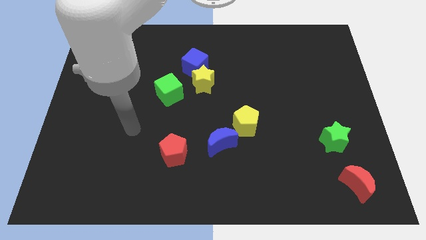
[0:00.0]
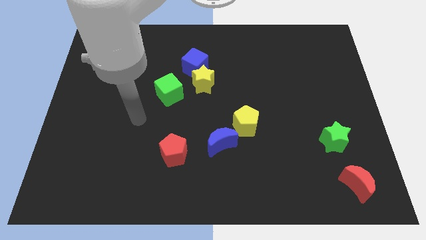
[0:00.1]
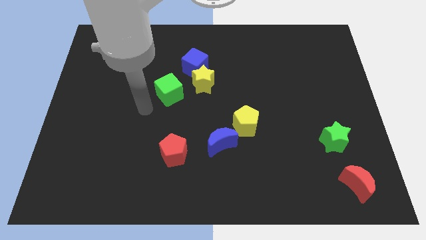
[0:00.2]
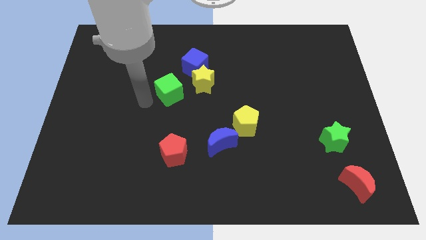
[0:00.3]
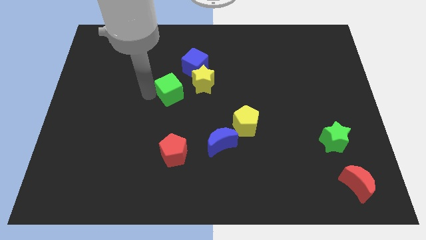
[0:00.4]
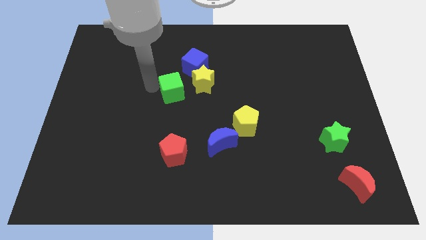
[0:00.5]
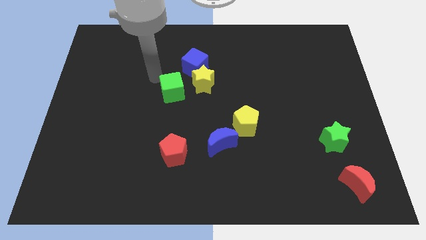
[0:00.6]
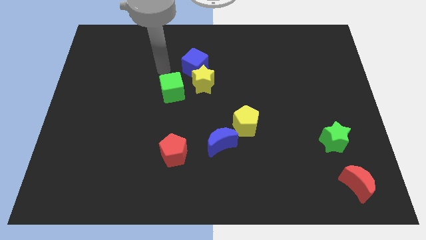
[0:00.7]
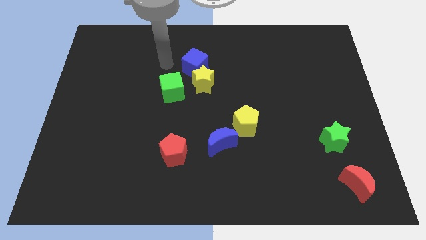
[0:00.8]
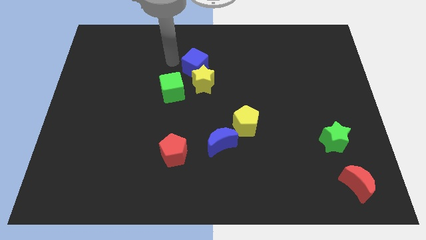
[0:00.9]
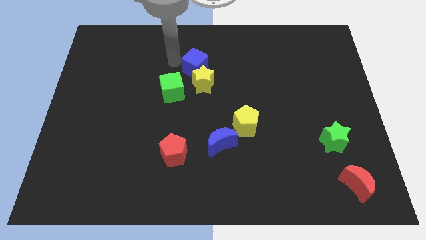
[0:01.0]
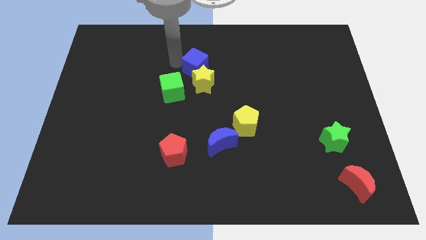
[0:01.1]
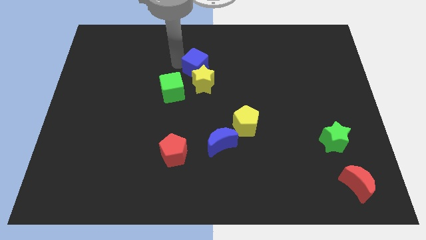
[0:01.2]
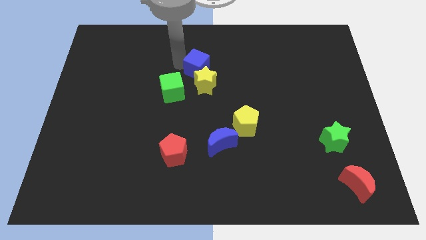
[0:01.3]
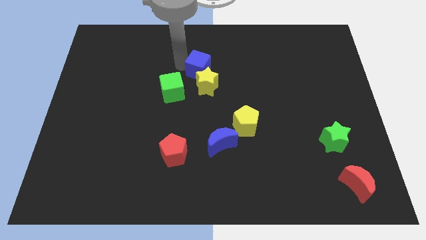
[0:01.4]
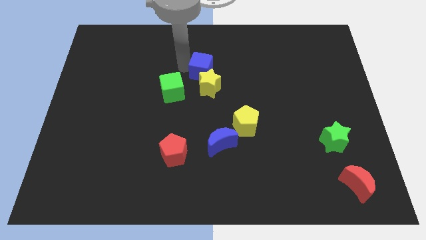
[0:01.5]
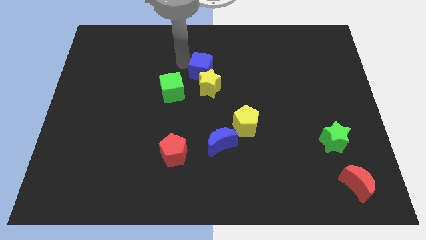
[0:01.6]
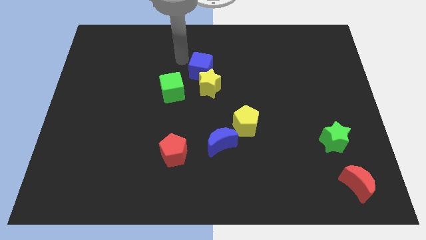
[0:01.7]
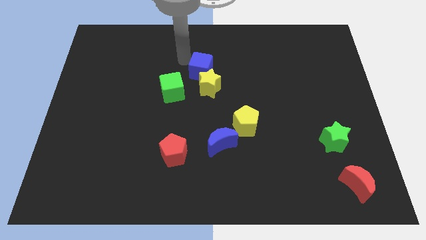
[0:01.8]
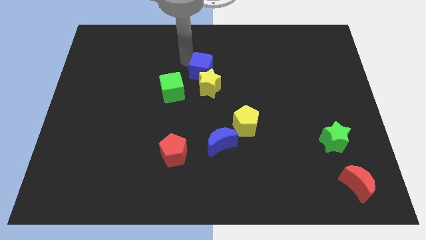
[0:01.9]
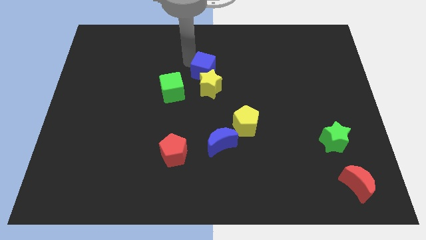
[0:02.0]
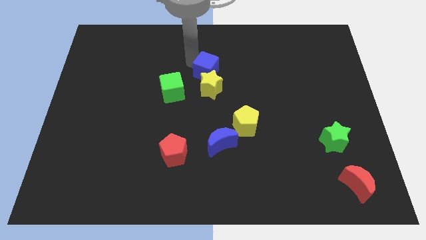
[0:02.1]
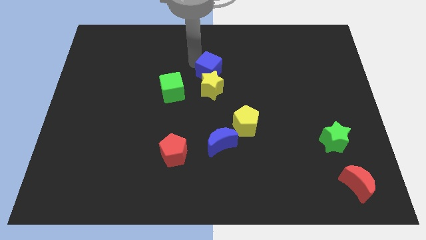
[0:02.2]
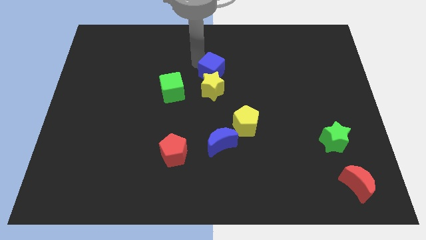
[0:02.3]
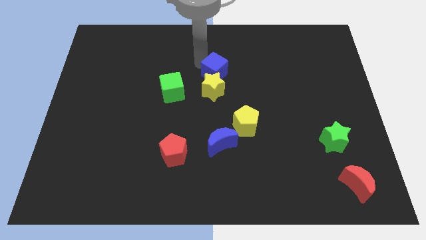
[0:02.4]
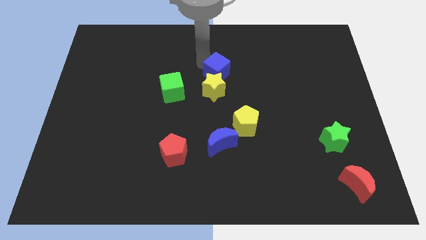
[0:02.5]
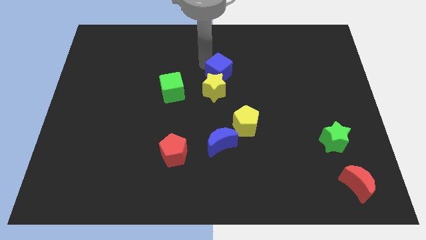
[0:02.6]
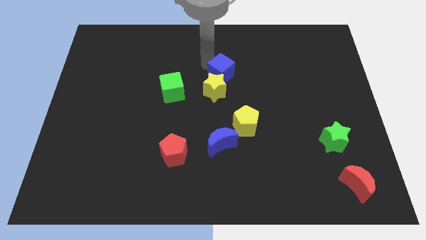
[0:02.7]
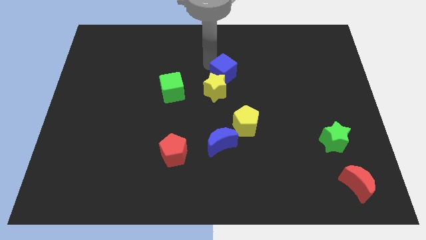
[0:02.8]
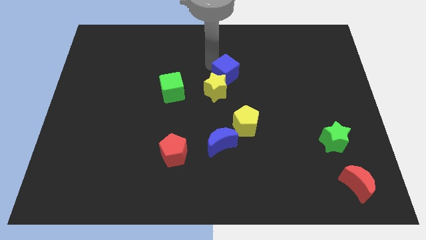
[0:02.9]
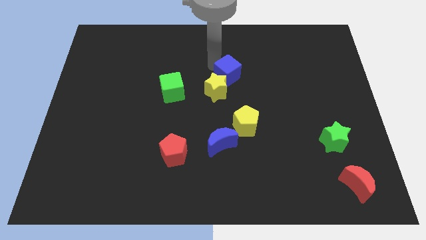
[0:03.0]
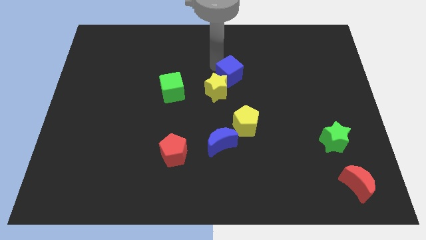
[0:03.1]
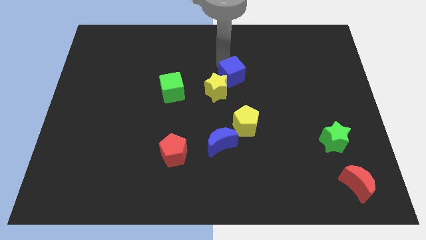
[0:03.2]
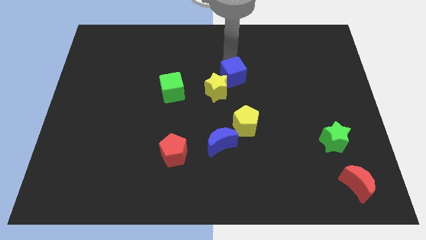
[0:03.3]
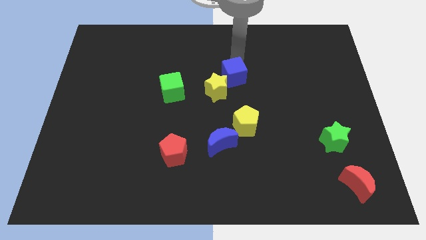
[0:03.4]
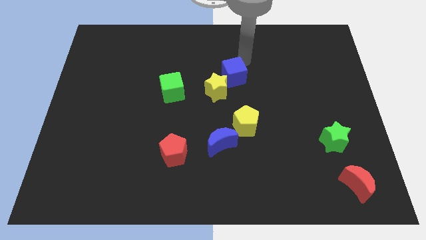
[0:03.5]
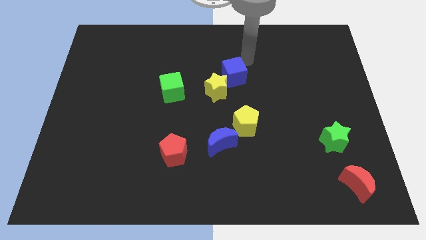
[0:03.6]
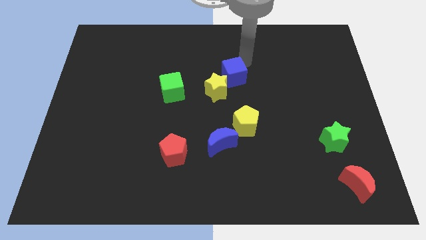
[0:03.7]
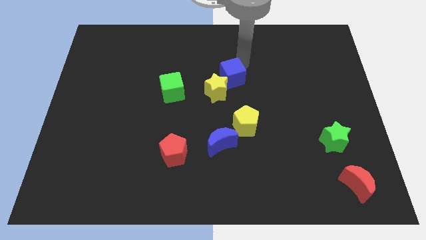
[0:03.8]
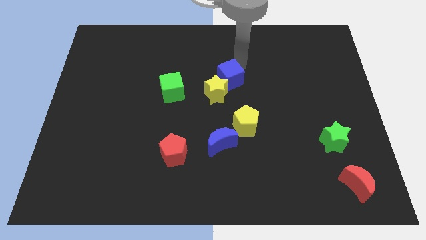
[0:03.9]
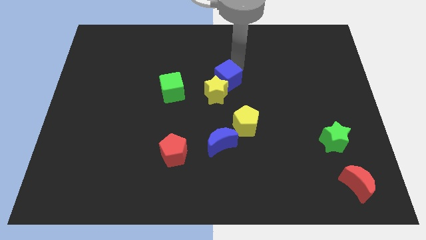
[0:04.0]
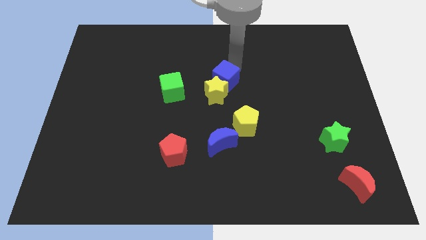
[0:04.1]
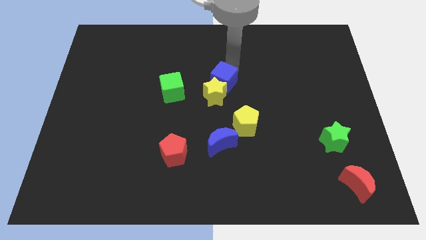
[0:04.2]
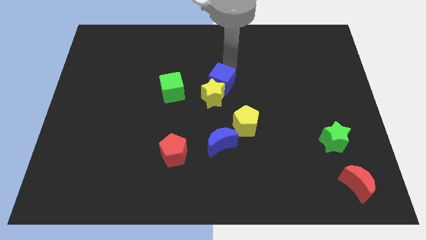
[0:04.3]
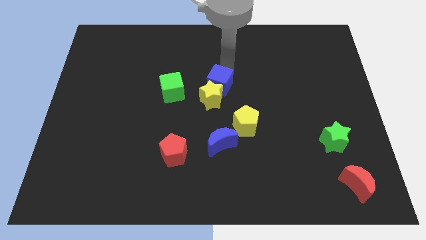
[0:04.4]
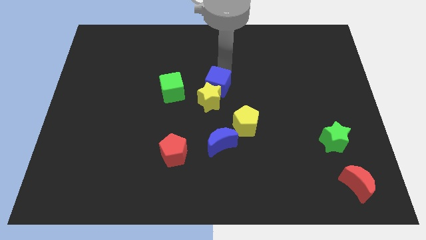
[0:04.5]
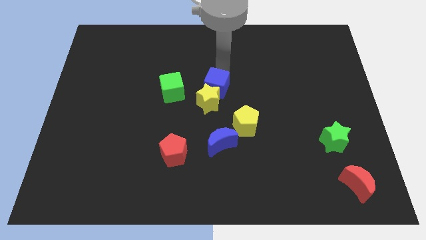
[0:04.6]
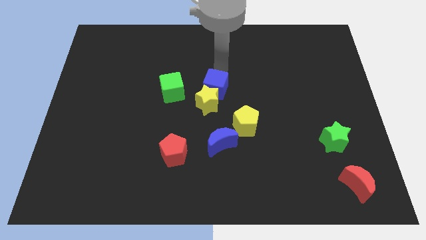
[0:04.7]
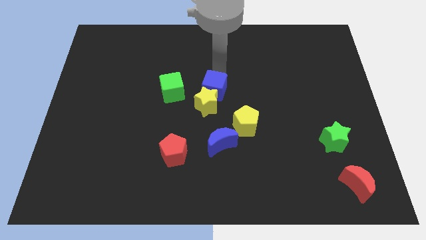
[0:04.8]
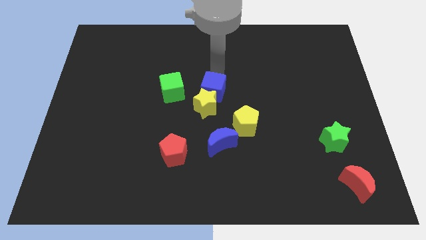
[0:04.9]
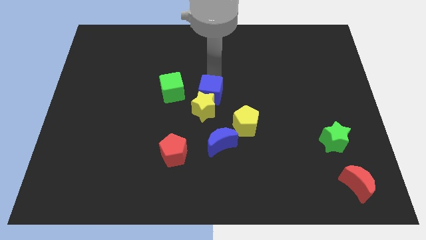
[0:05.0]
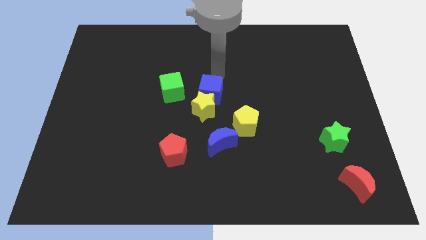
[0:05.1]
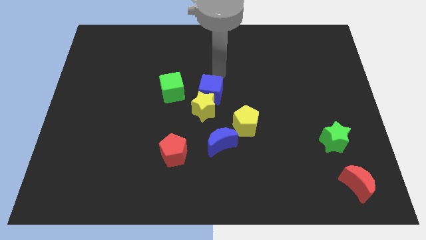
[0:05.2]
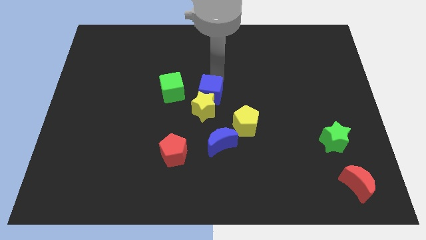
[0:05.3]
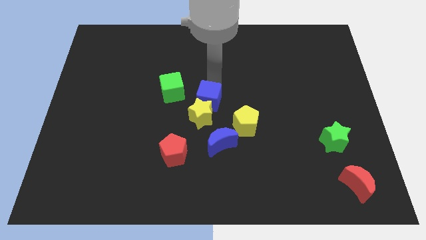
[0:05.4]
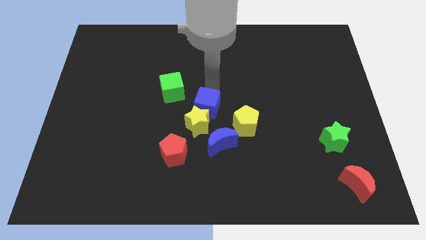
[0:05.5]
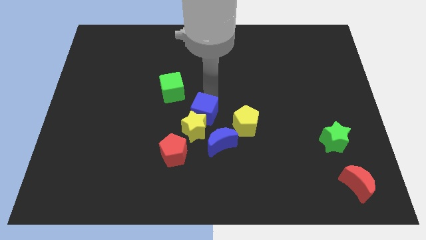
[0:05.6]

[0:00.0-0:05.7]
push the blue cube to the top left side of the blue moon

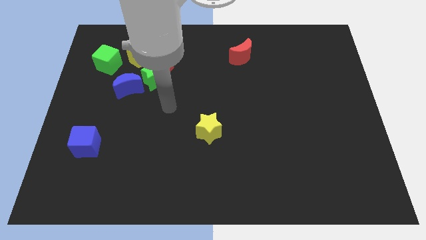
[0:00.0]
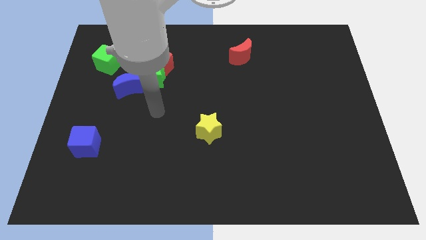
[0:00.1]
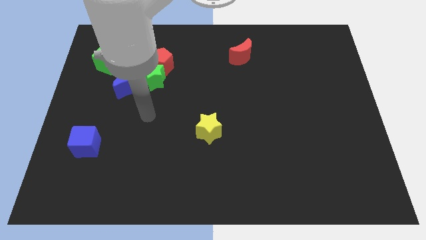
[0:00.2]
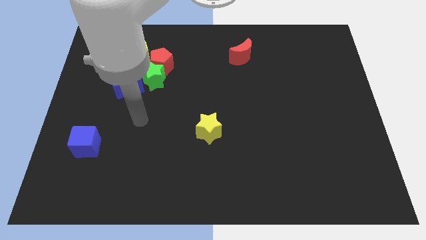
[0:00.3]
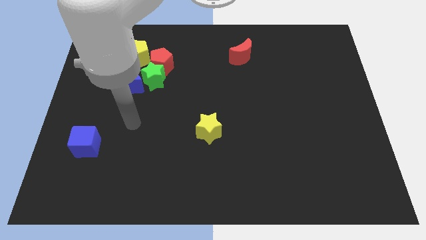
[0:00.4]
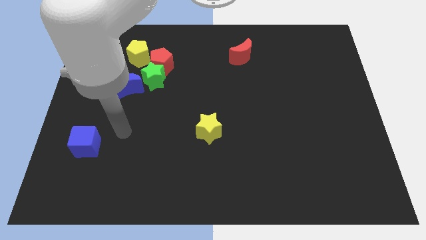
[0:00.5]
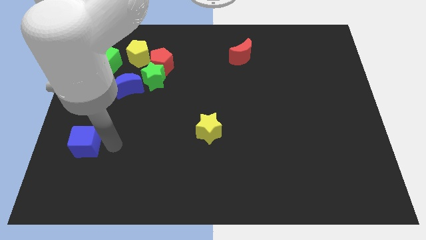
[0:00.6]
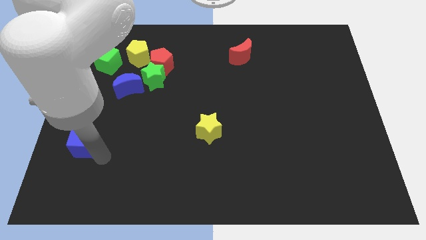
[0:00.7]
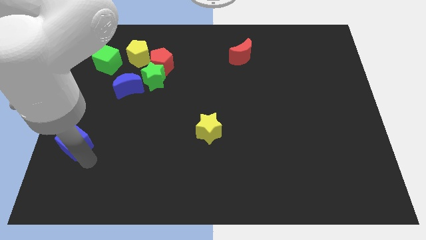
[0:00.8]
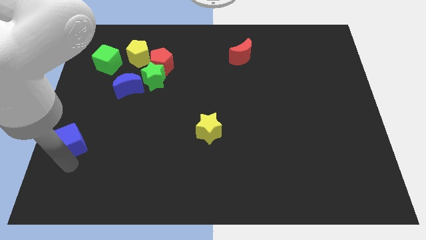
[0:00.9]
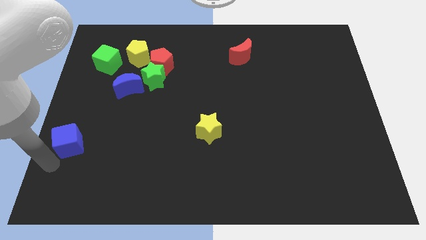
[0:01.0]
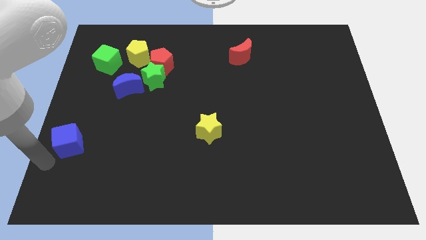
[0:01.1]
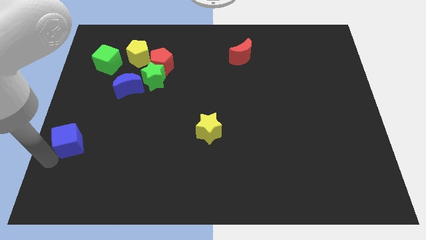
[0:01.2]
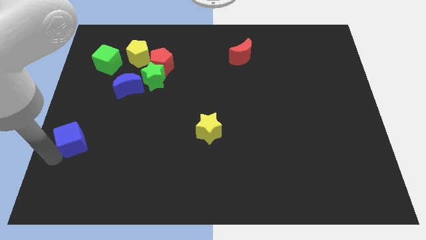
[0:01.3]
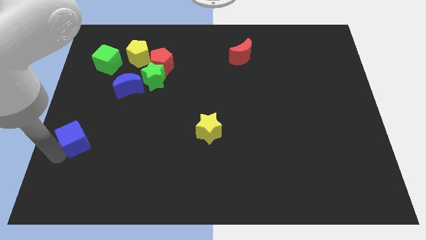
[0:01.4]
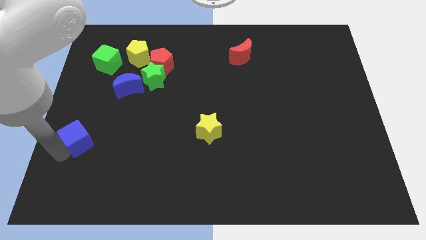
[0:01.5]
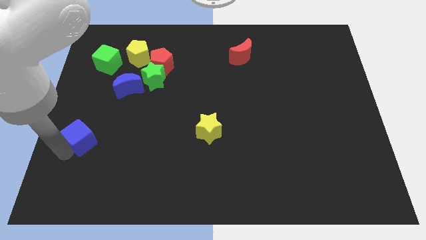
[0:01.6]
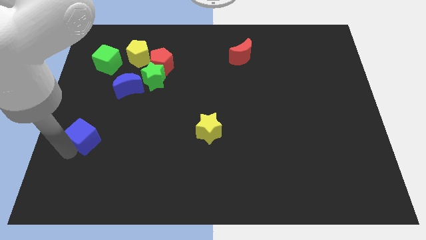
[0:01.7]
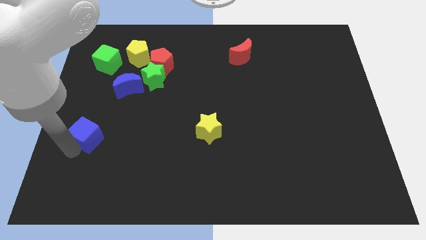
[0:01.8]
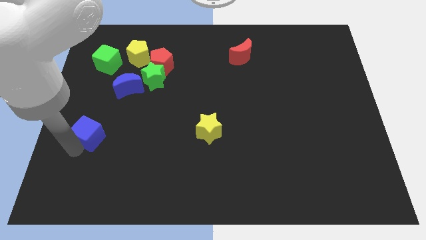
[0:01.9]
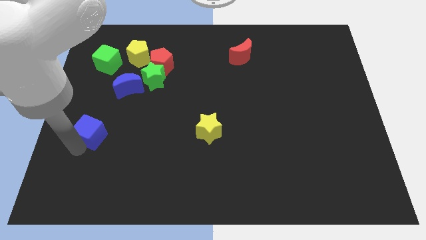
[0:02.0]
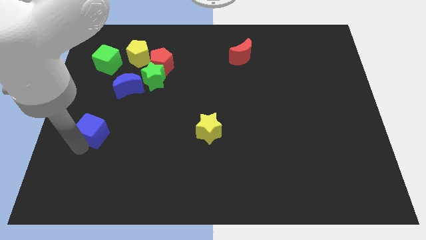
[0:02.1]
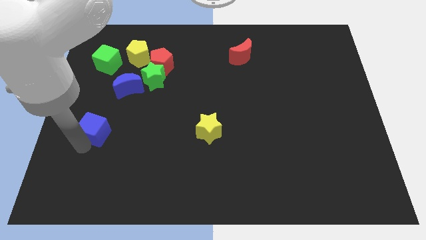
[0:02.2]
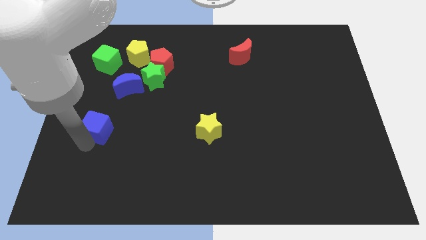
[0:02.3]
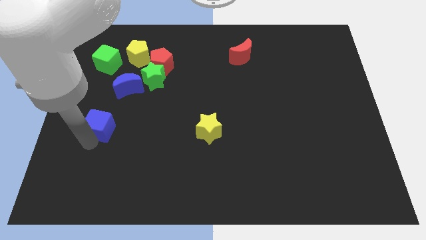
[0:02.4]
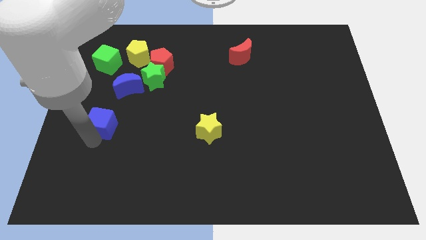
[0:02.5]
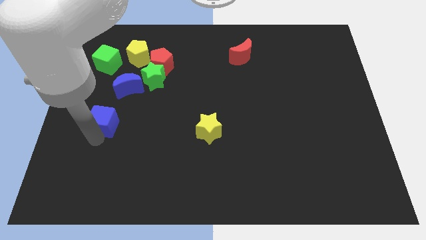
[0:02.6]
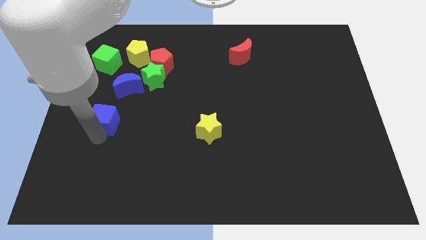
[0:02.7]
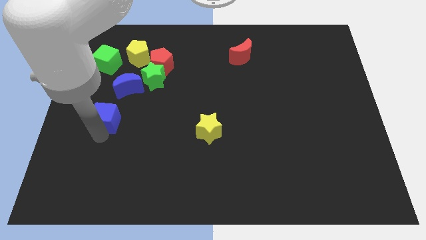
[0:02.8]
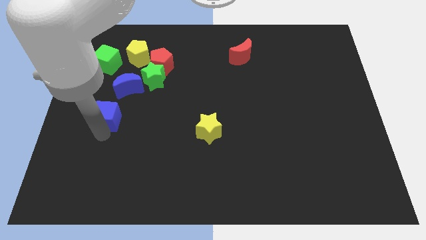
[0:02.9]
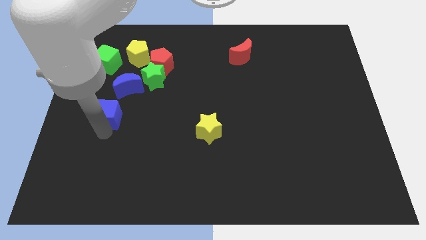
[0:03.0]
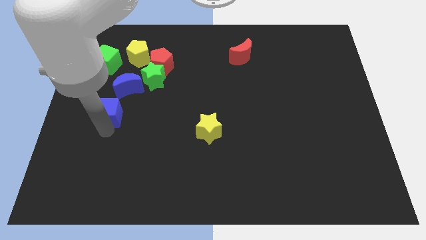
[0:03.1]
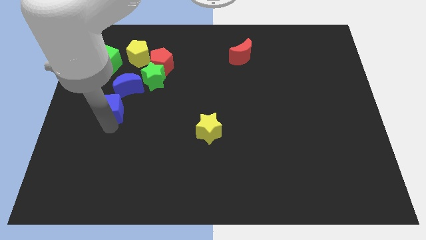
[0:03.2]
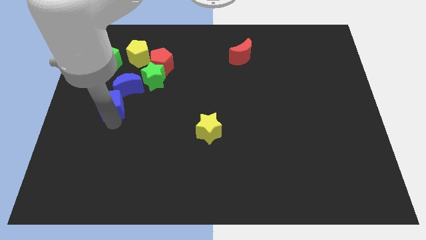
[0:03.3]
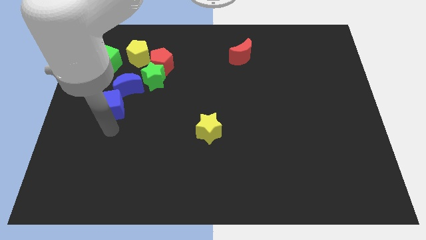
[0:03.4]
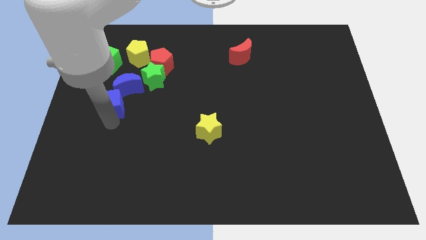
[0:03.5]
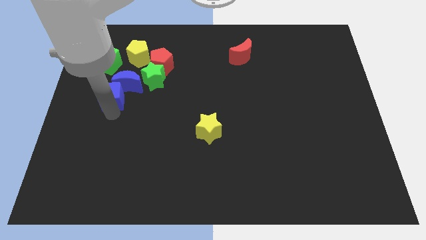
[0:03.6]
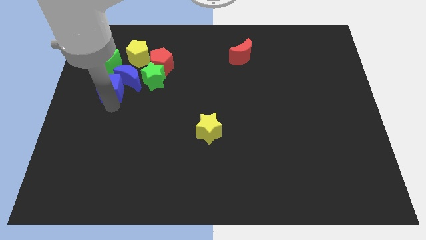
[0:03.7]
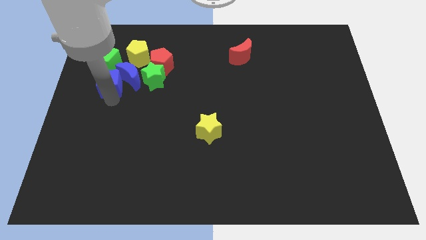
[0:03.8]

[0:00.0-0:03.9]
slide the blue cube to the bottom left side of the yellow pentagon
